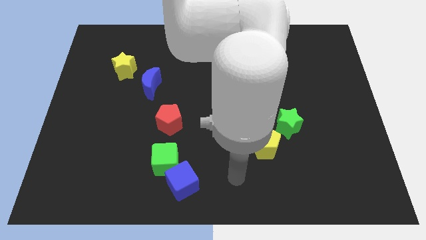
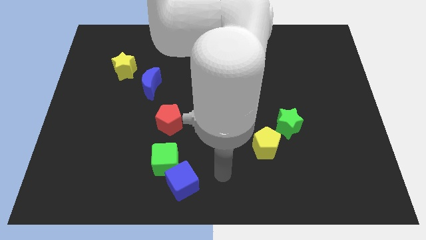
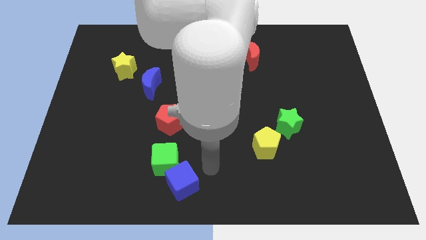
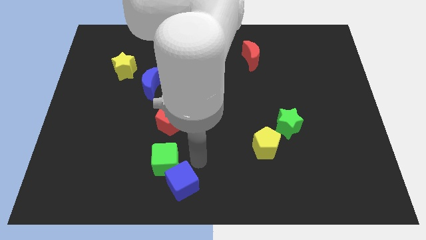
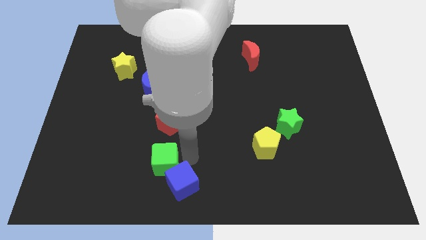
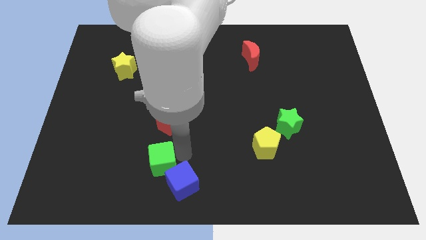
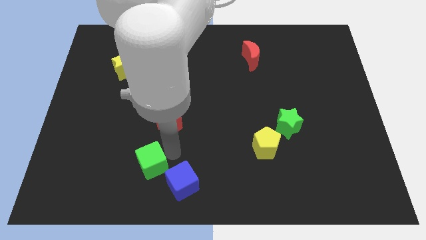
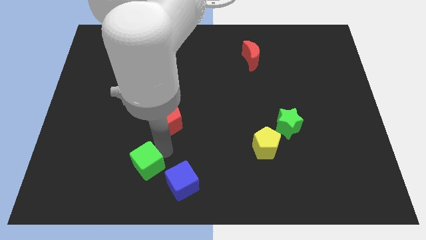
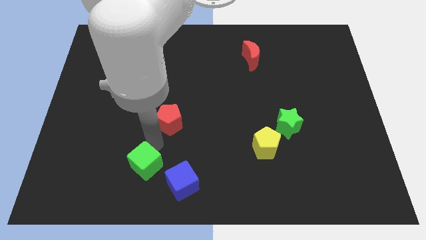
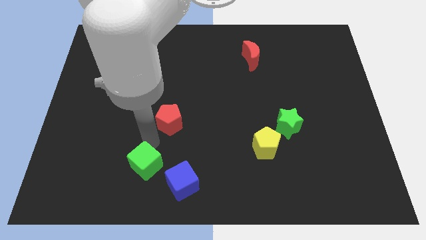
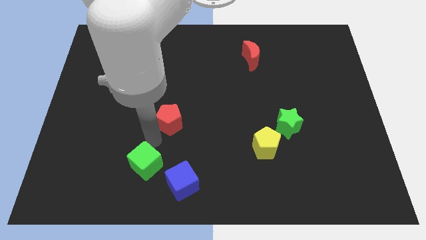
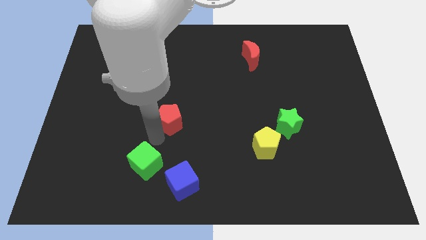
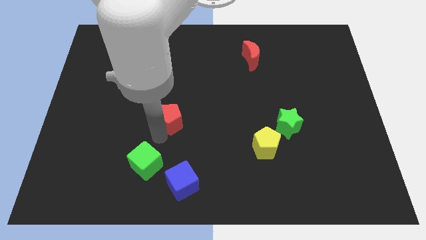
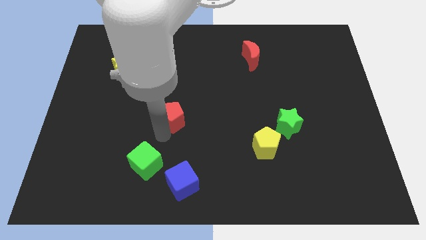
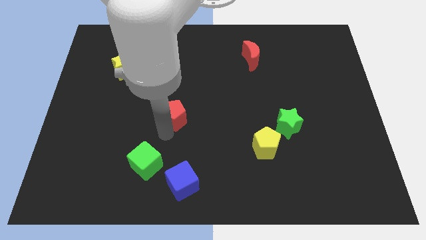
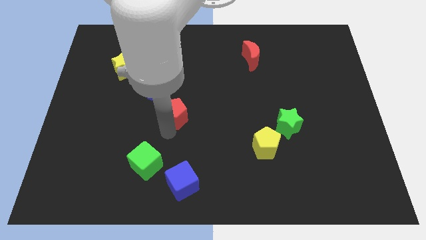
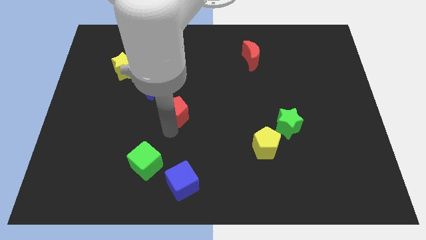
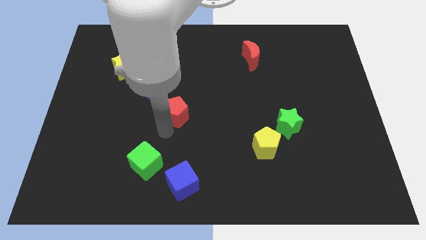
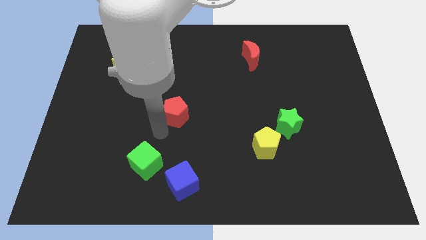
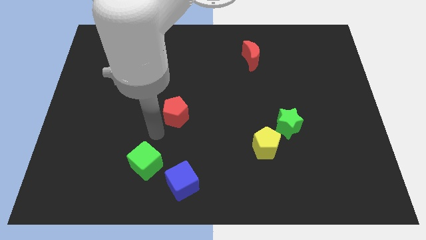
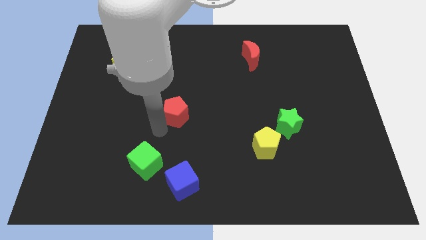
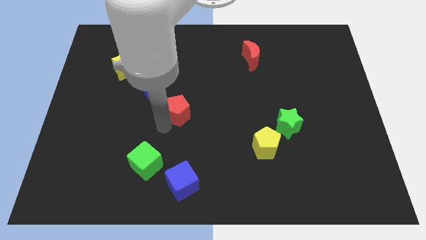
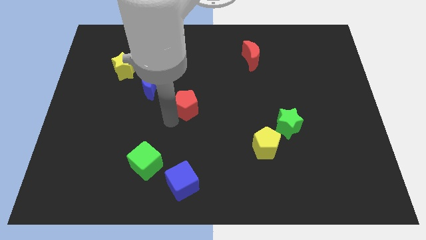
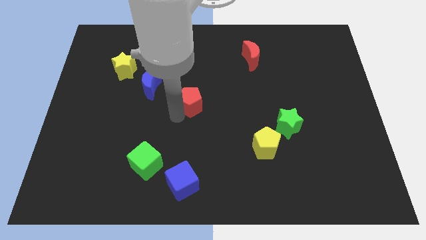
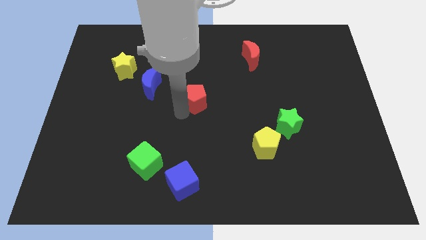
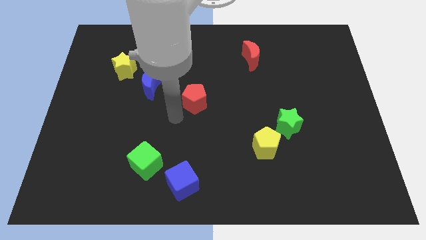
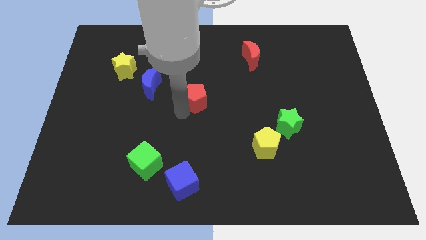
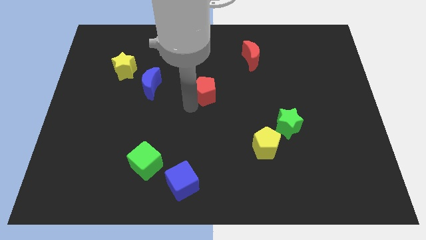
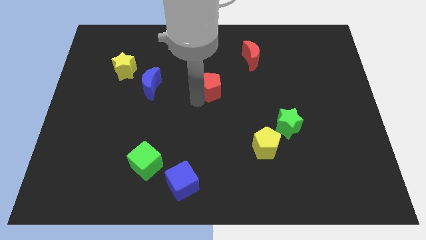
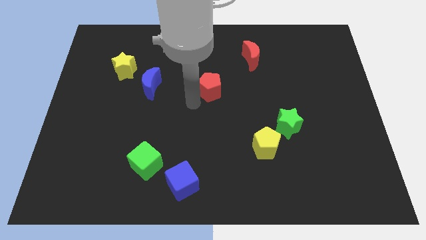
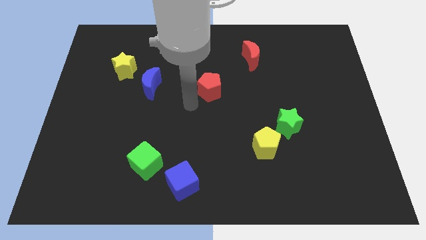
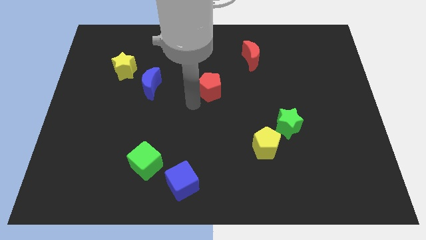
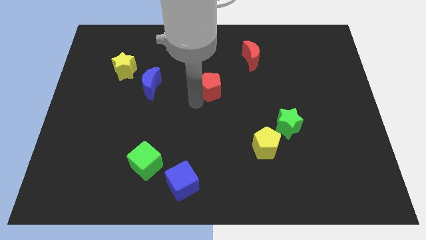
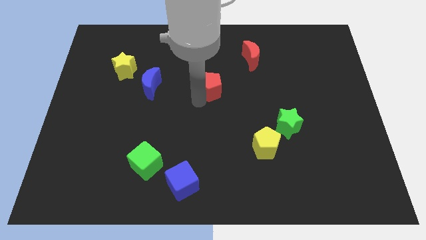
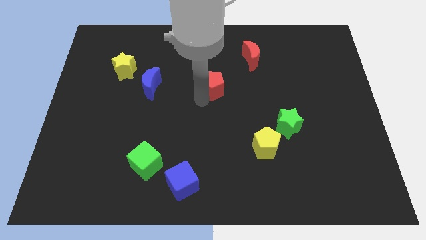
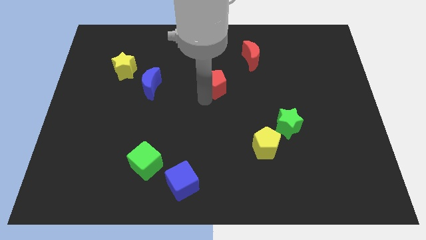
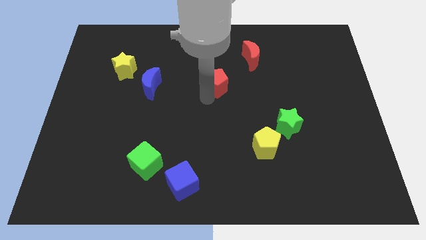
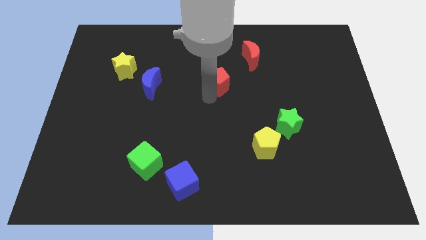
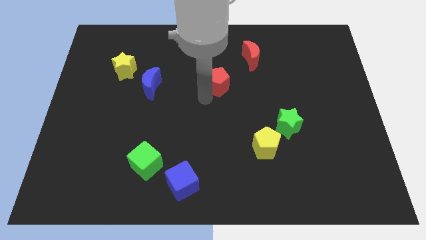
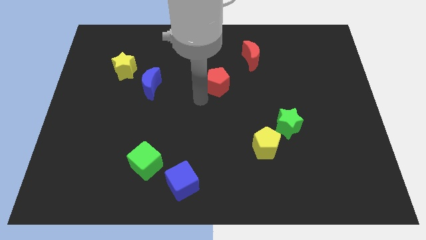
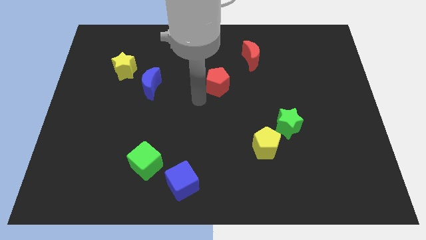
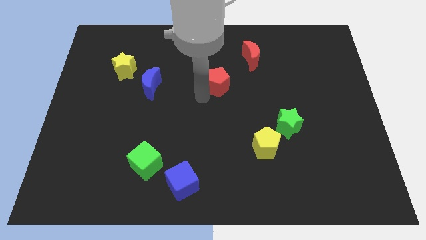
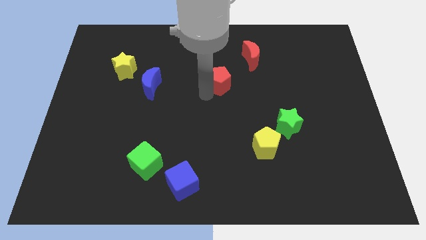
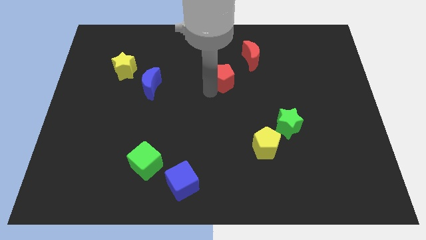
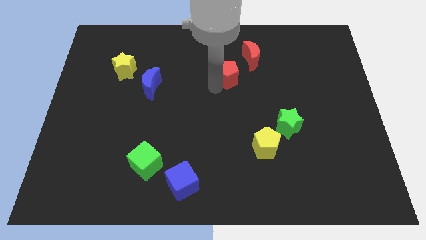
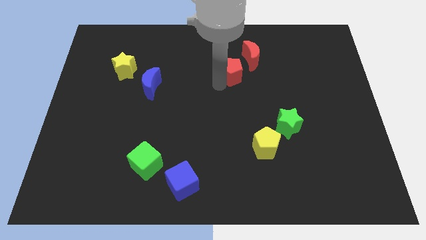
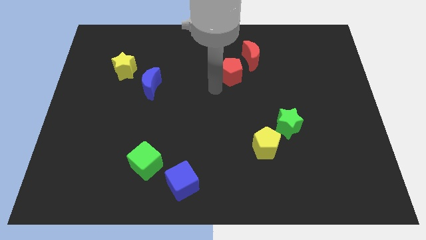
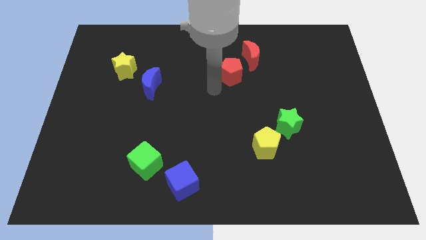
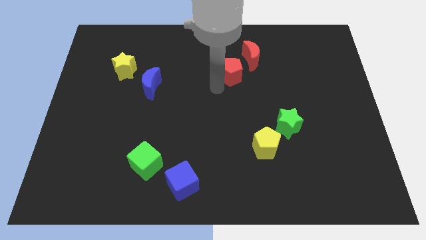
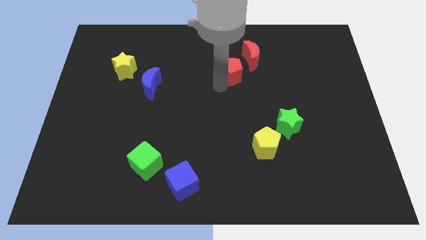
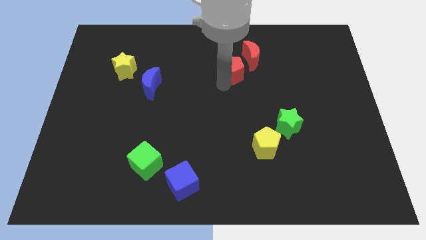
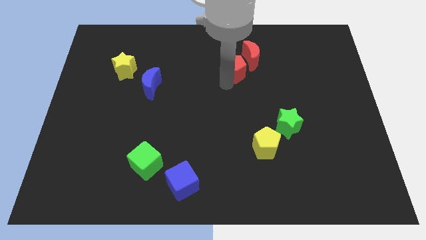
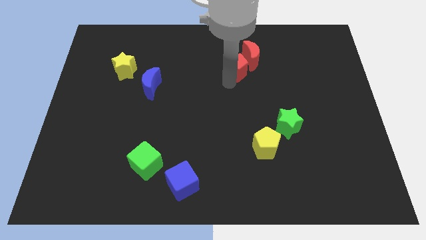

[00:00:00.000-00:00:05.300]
push the red pentagon next to the red moon

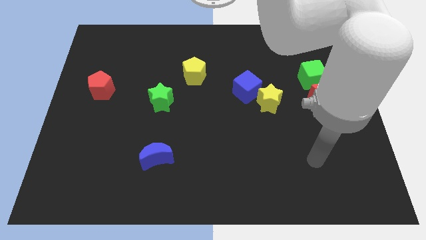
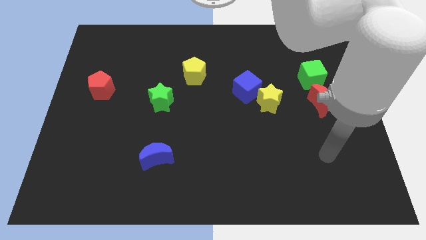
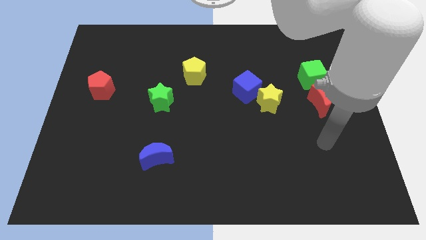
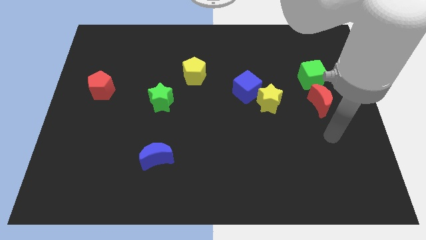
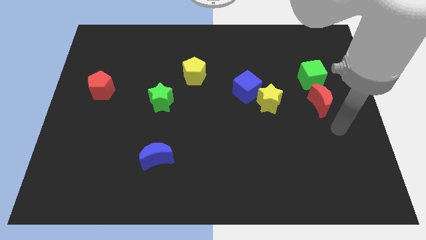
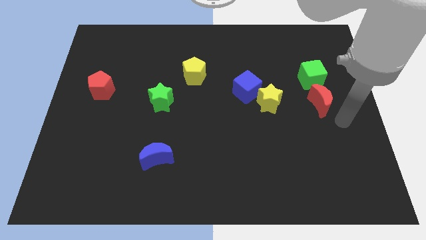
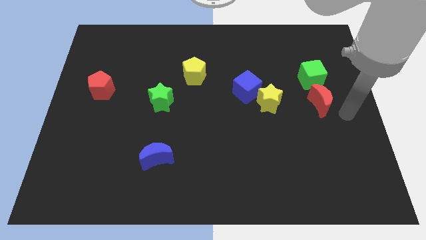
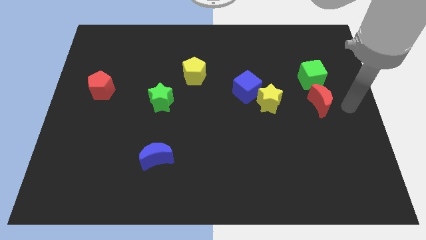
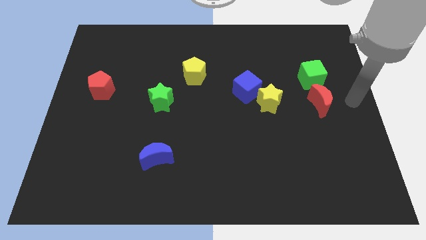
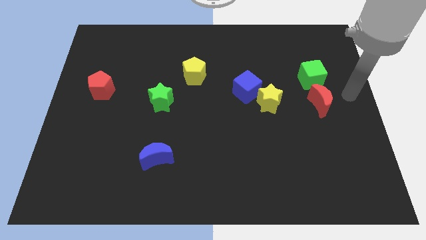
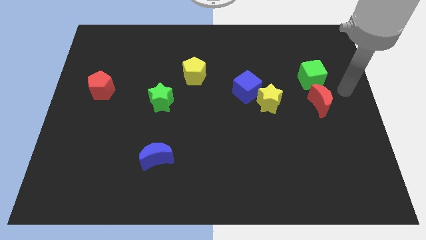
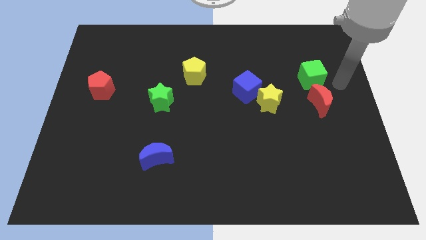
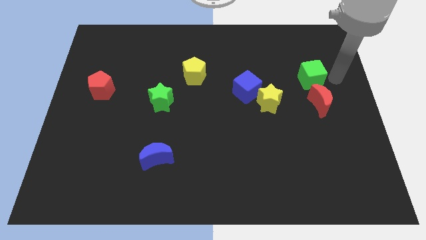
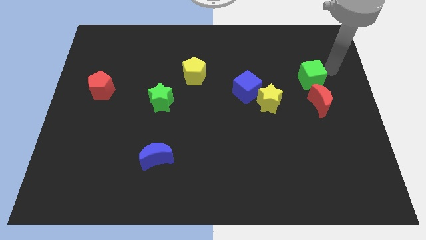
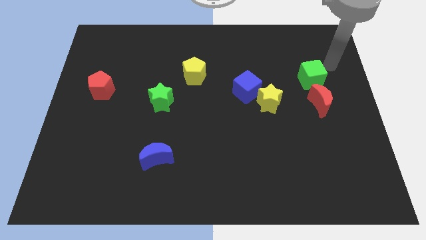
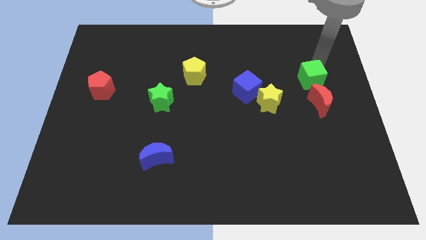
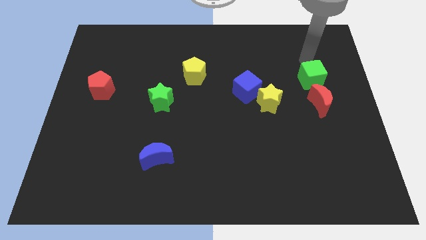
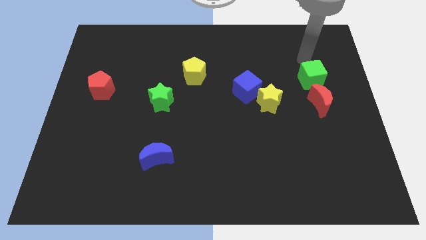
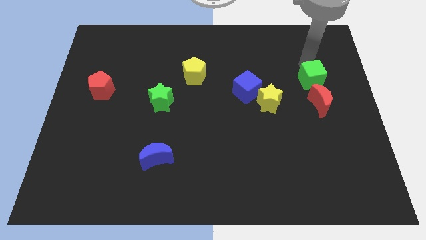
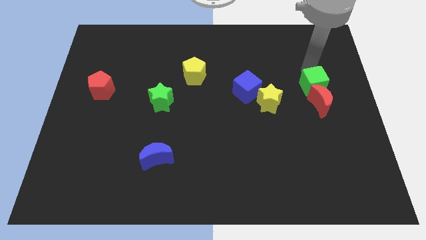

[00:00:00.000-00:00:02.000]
move the green cube close to the red moon
